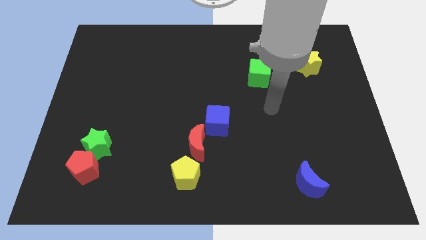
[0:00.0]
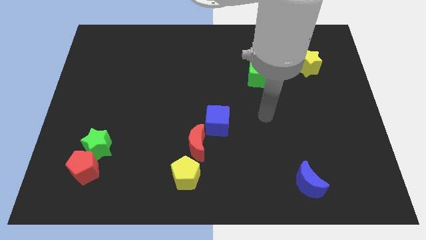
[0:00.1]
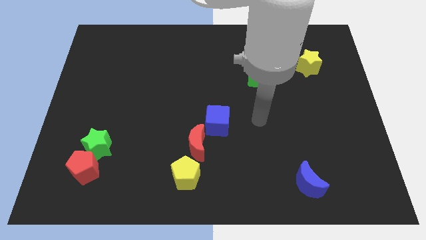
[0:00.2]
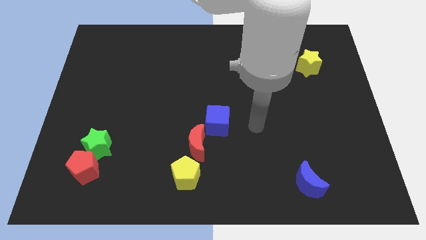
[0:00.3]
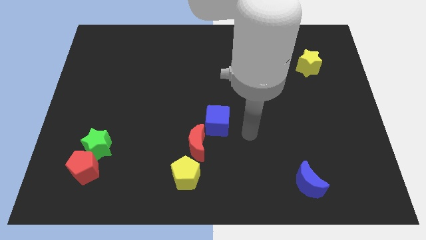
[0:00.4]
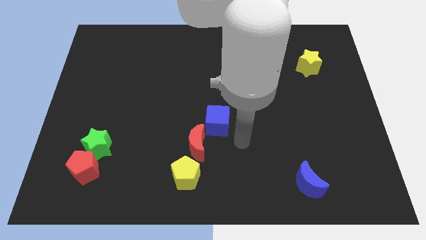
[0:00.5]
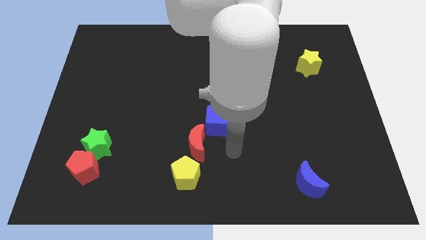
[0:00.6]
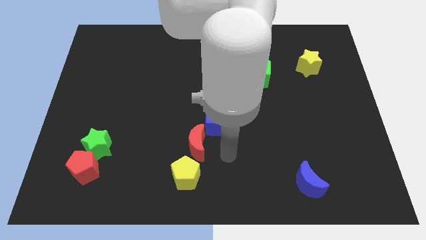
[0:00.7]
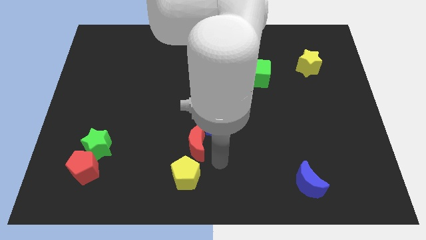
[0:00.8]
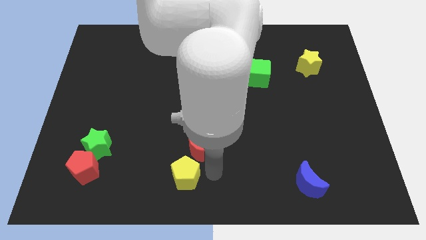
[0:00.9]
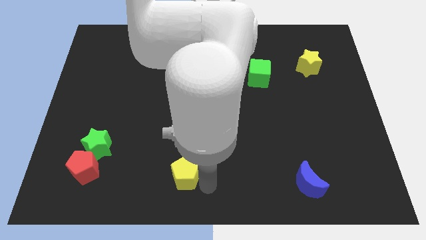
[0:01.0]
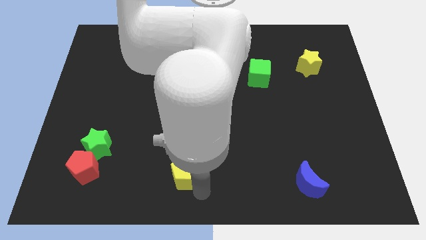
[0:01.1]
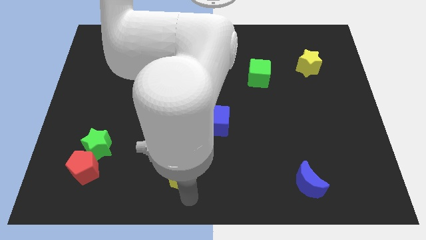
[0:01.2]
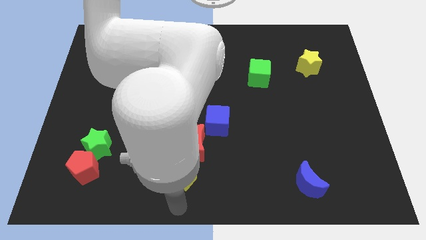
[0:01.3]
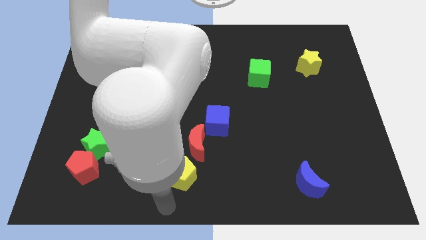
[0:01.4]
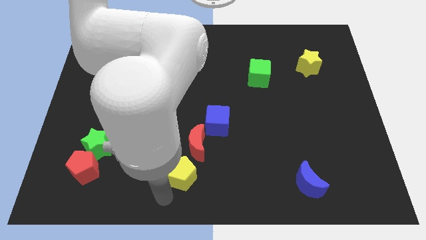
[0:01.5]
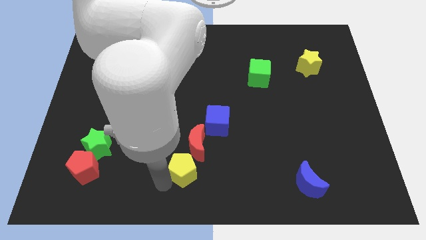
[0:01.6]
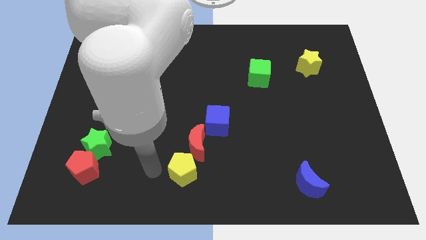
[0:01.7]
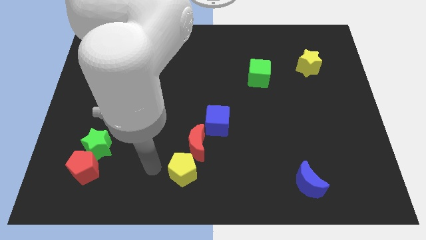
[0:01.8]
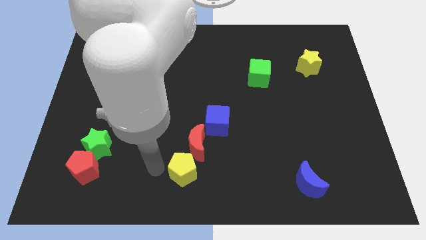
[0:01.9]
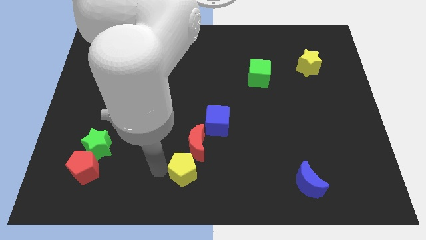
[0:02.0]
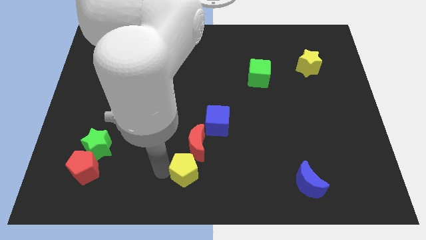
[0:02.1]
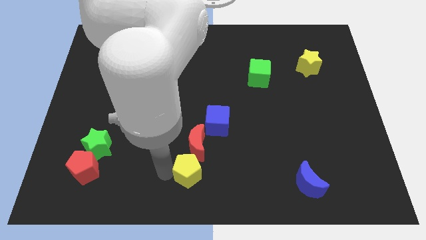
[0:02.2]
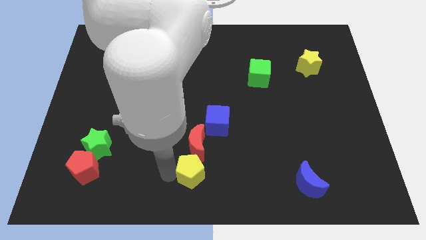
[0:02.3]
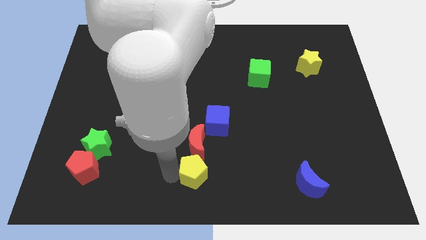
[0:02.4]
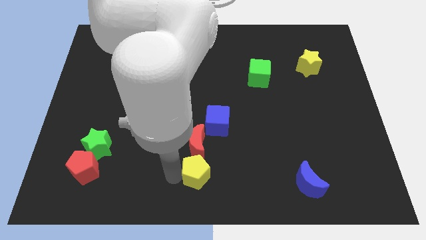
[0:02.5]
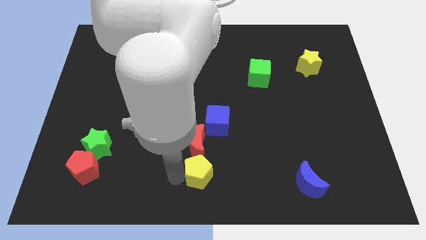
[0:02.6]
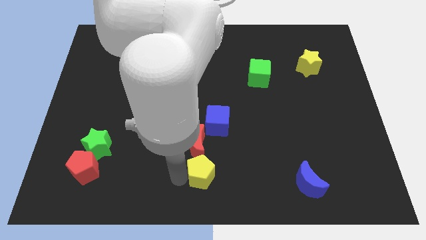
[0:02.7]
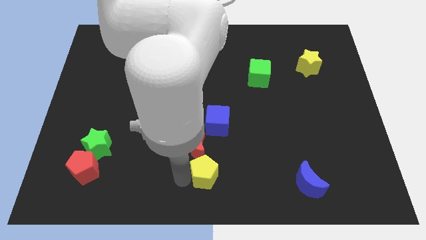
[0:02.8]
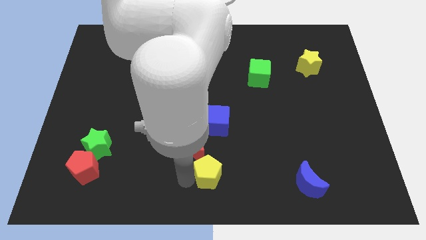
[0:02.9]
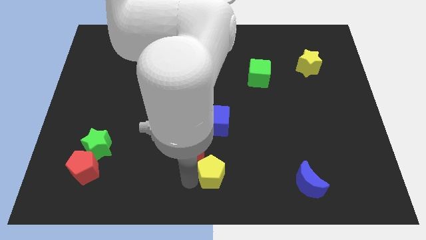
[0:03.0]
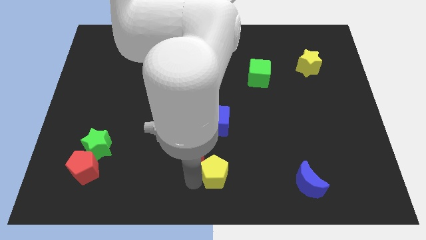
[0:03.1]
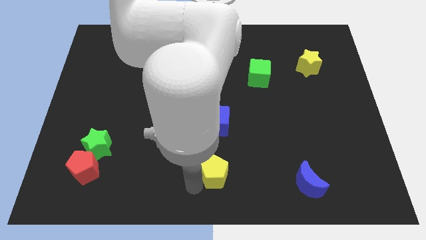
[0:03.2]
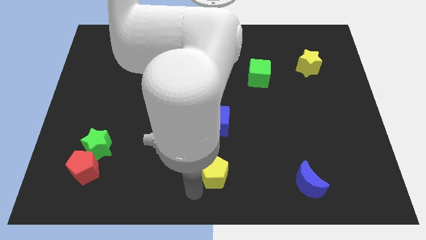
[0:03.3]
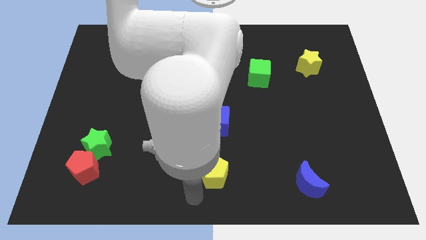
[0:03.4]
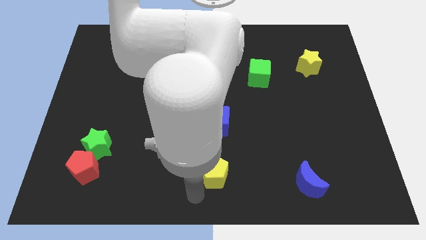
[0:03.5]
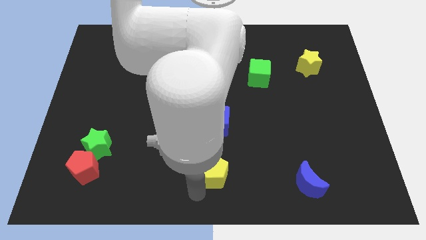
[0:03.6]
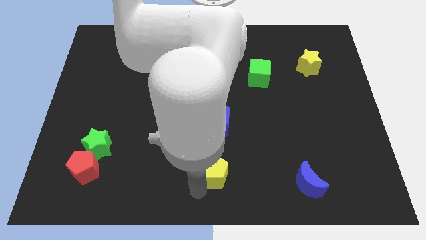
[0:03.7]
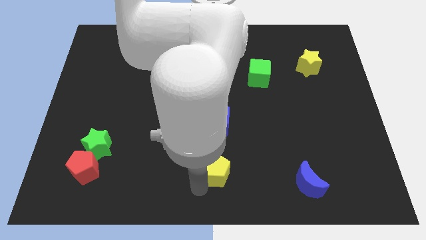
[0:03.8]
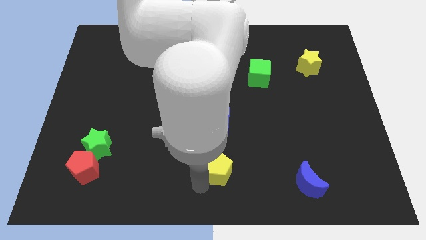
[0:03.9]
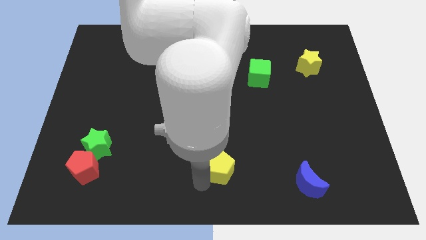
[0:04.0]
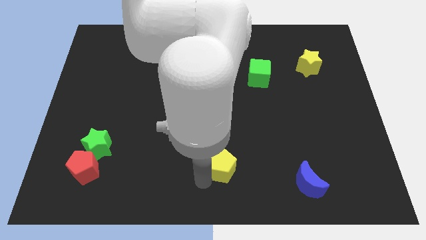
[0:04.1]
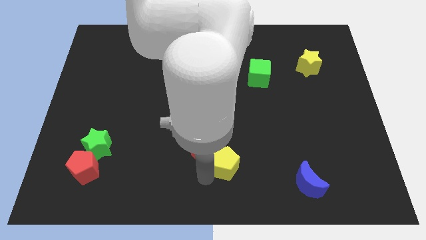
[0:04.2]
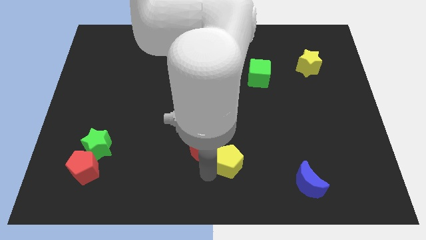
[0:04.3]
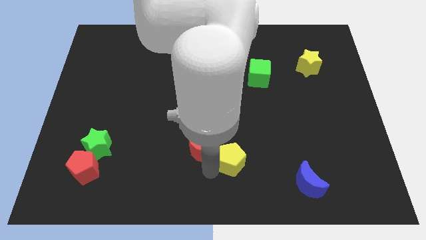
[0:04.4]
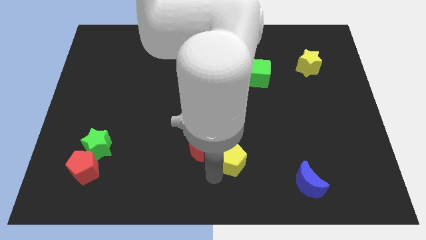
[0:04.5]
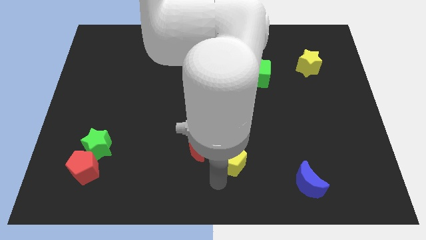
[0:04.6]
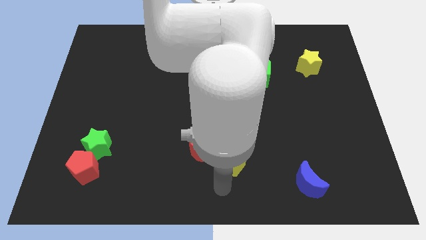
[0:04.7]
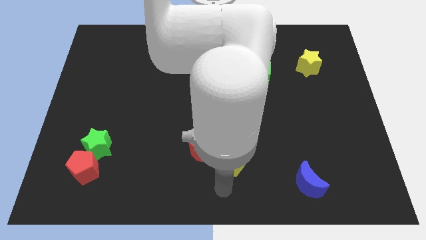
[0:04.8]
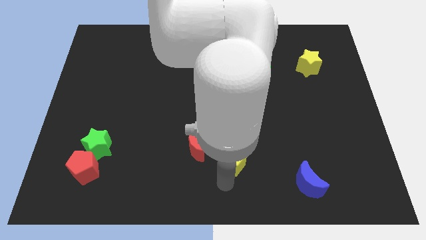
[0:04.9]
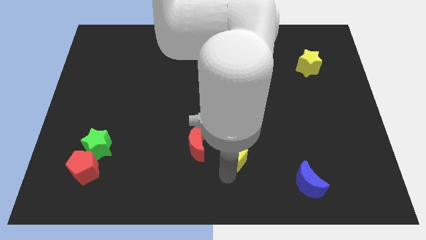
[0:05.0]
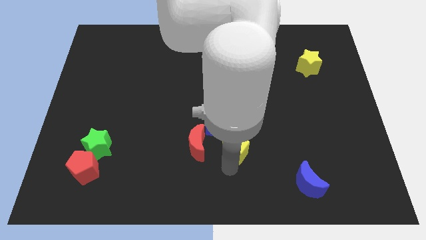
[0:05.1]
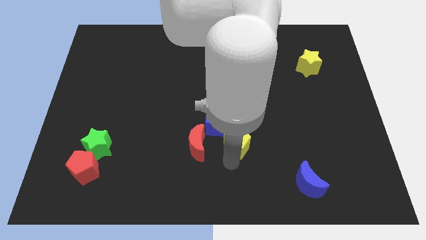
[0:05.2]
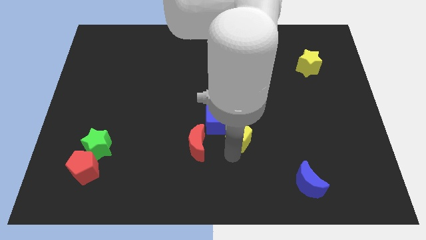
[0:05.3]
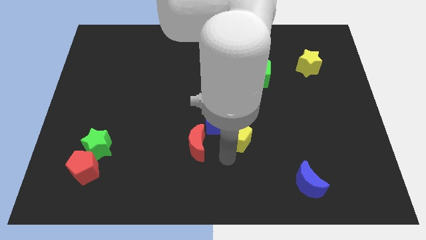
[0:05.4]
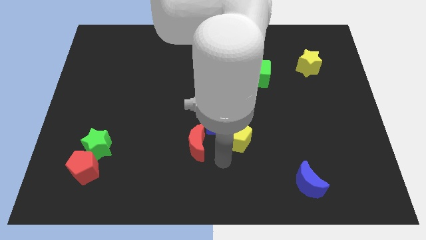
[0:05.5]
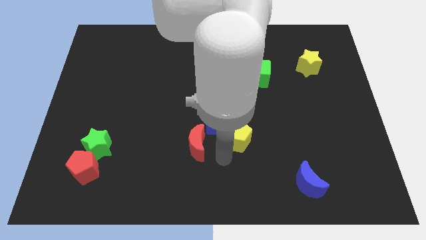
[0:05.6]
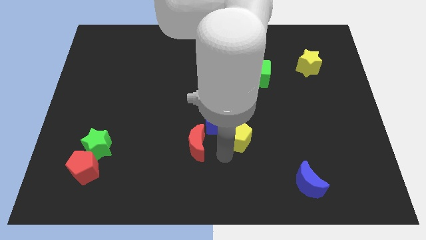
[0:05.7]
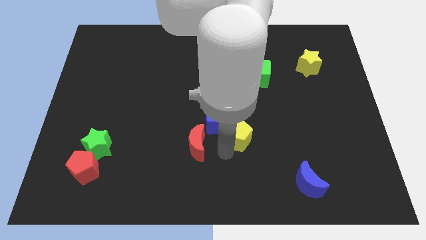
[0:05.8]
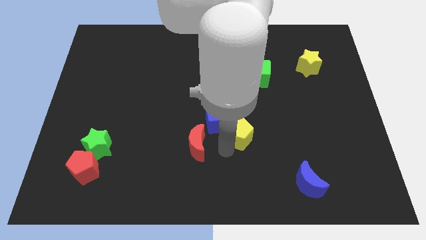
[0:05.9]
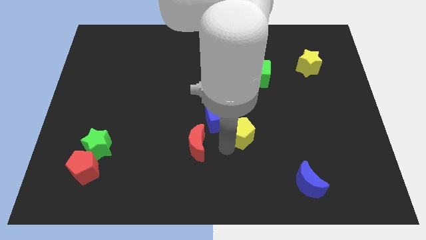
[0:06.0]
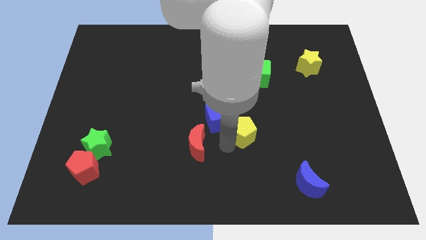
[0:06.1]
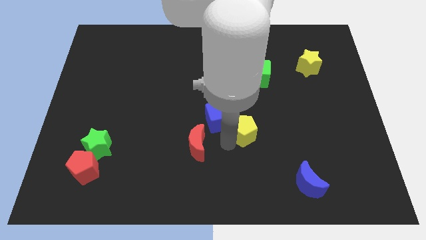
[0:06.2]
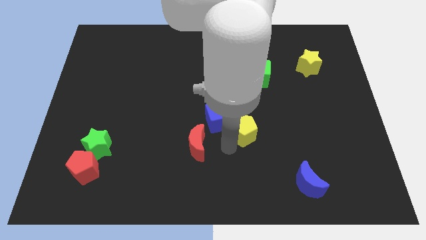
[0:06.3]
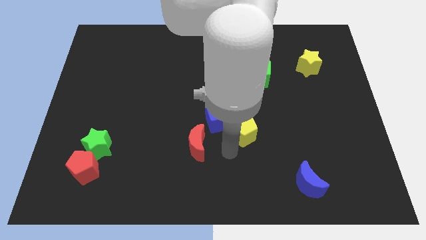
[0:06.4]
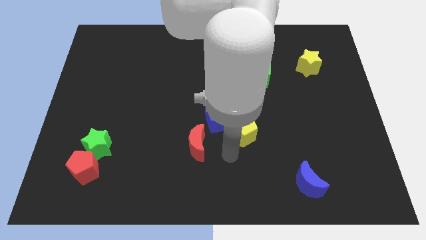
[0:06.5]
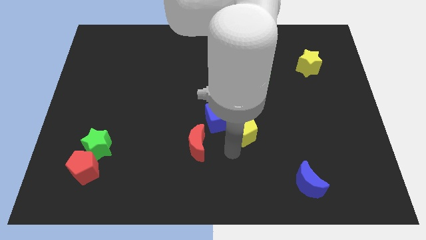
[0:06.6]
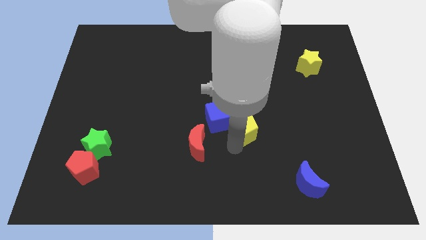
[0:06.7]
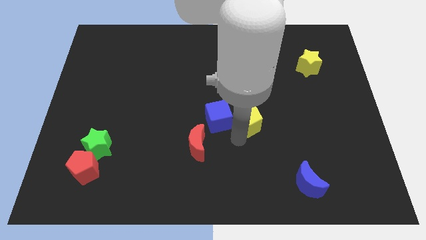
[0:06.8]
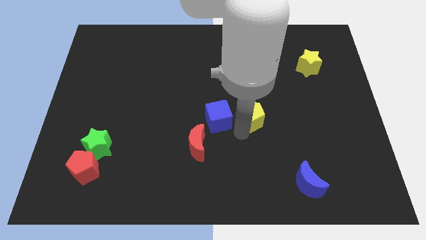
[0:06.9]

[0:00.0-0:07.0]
push the yellow pentagon upwards and then right

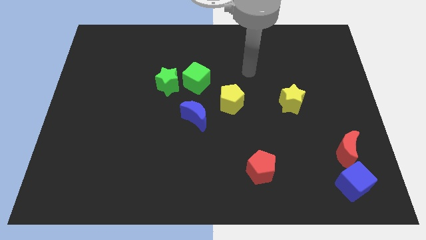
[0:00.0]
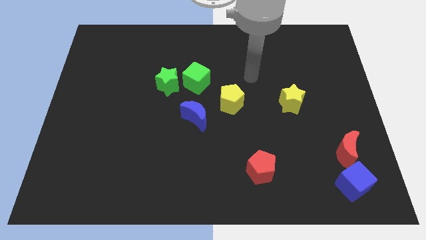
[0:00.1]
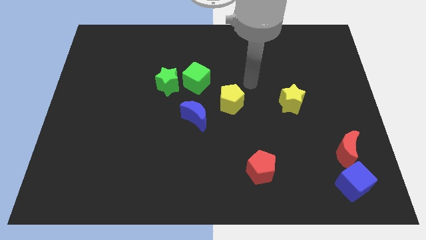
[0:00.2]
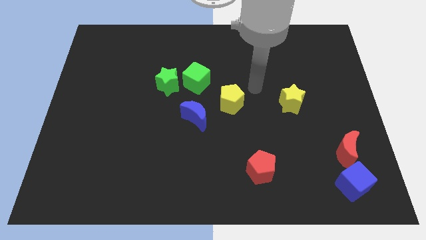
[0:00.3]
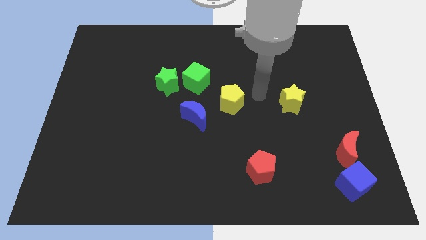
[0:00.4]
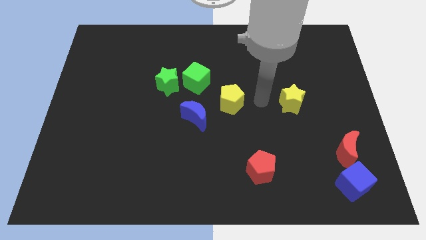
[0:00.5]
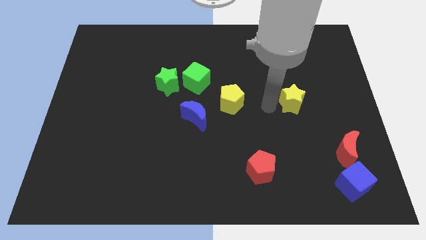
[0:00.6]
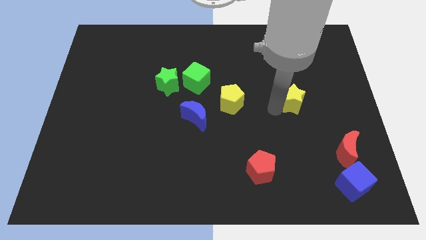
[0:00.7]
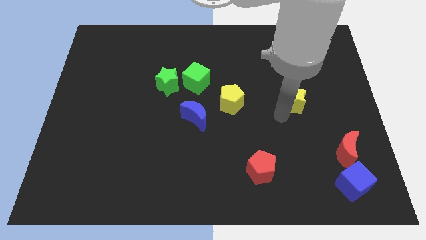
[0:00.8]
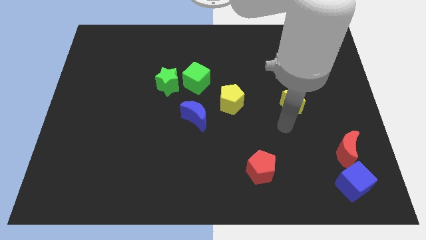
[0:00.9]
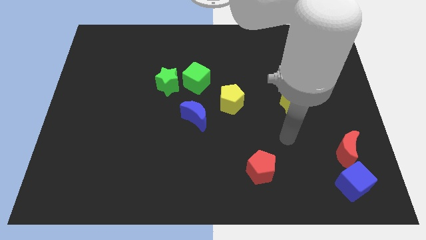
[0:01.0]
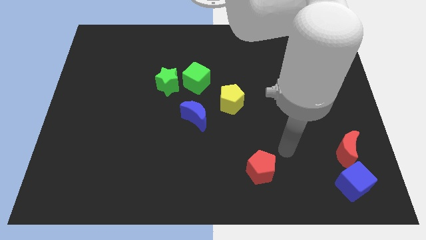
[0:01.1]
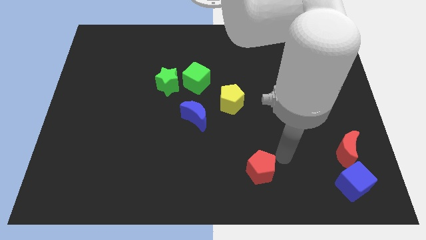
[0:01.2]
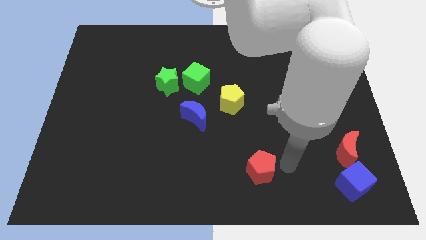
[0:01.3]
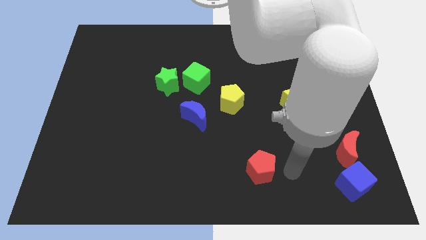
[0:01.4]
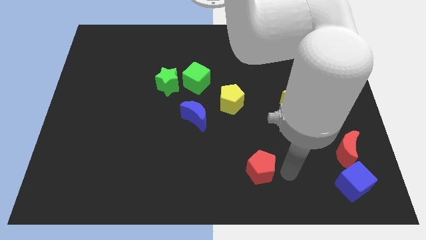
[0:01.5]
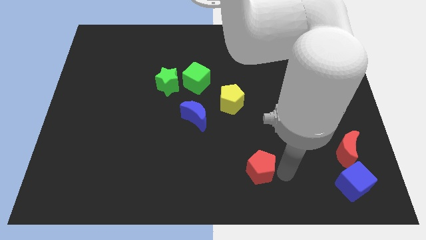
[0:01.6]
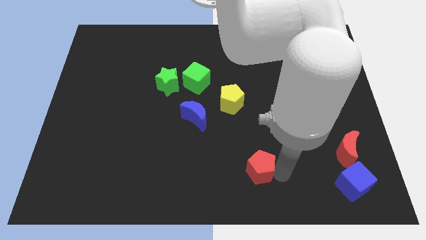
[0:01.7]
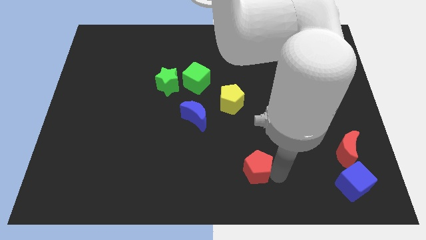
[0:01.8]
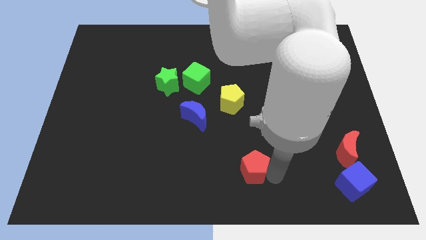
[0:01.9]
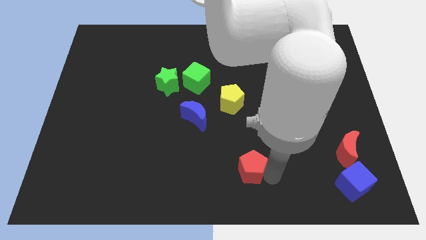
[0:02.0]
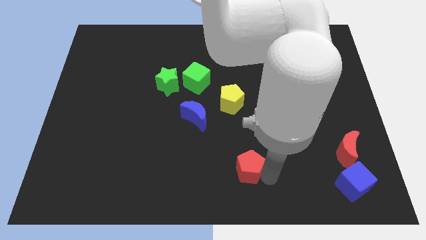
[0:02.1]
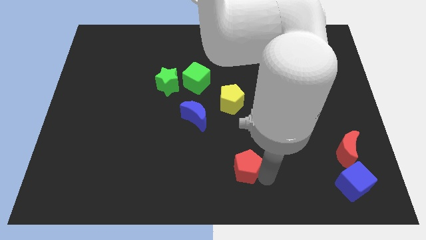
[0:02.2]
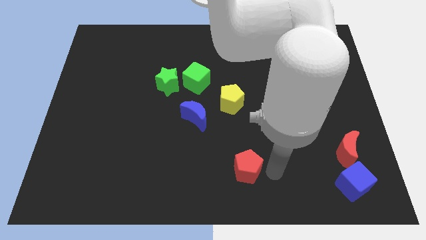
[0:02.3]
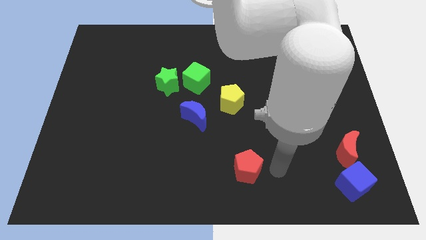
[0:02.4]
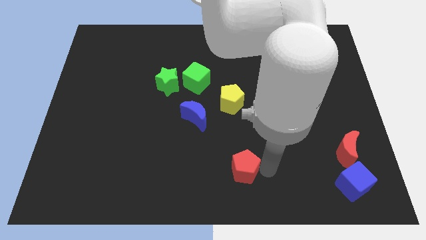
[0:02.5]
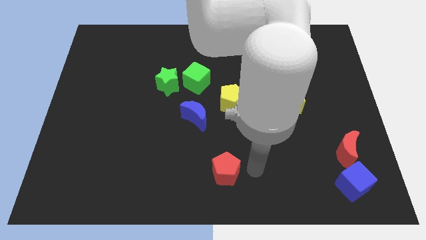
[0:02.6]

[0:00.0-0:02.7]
move the red pentagon a little bit to the left
